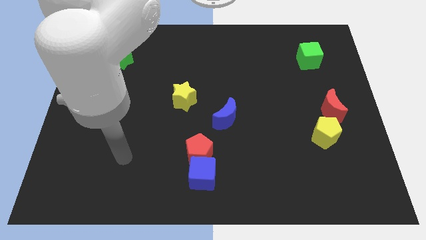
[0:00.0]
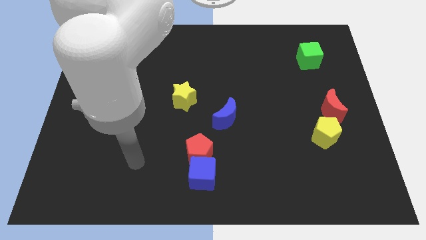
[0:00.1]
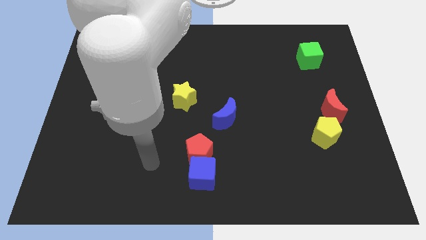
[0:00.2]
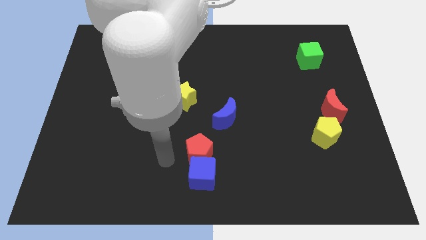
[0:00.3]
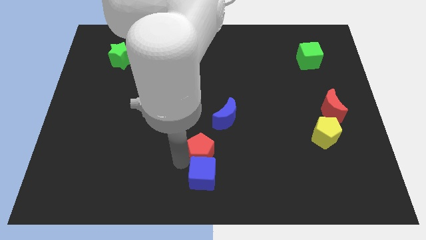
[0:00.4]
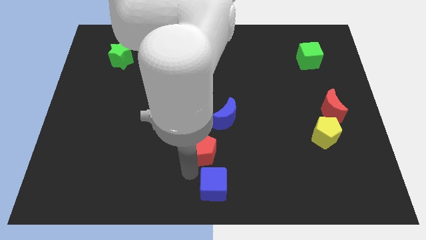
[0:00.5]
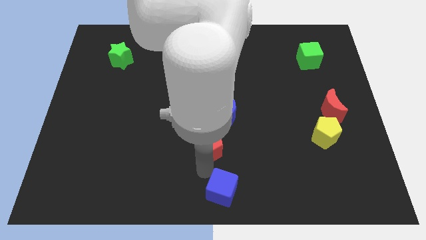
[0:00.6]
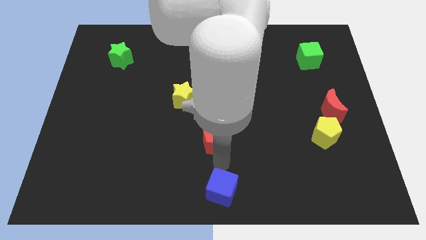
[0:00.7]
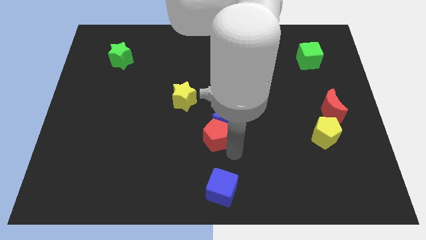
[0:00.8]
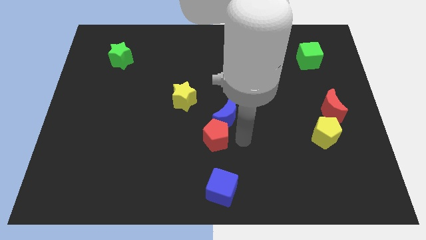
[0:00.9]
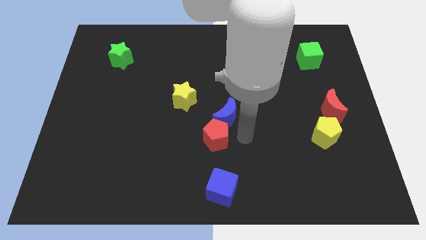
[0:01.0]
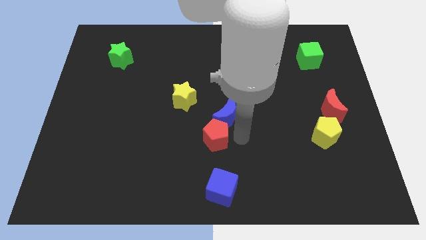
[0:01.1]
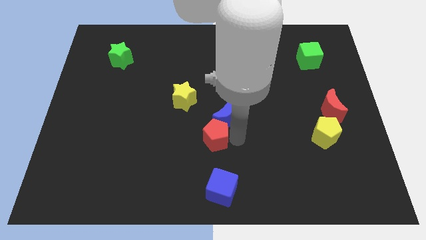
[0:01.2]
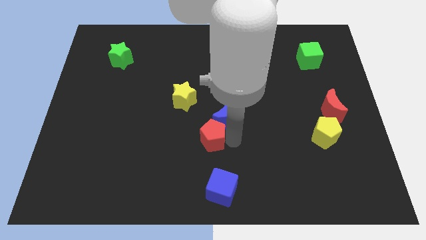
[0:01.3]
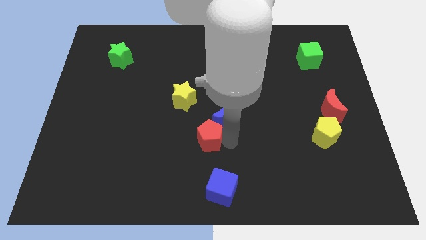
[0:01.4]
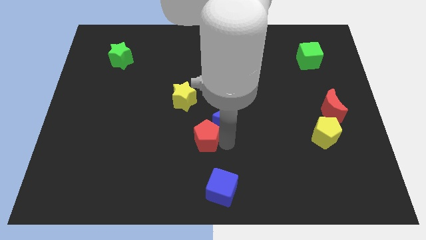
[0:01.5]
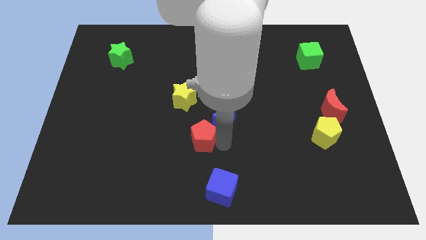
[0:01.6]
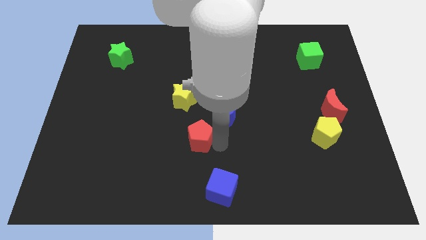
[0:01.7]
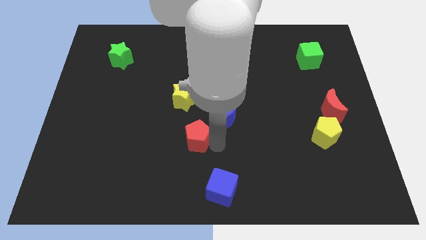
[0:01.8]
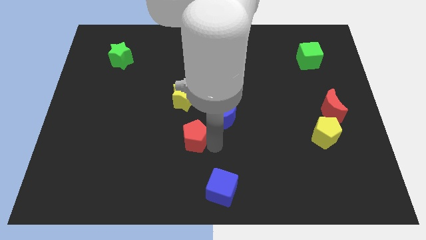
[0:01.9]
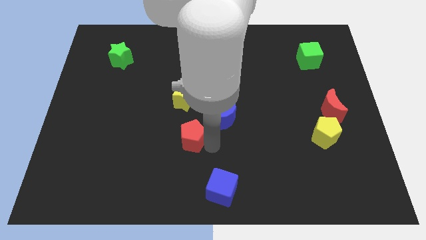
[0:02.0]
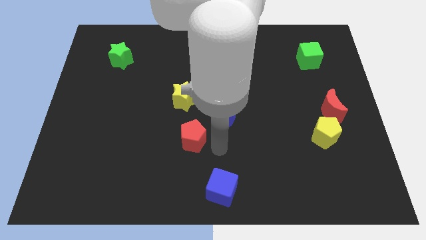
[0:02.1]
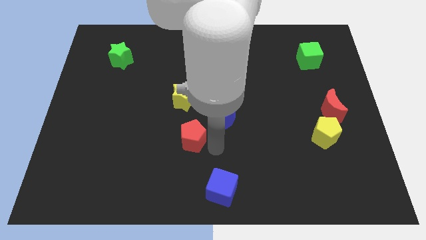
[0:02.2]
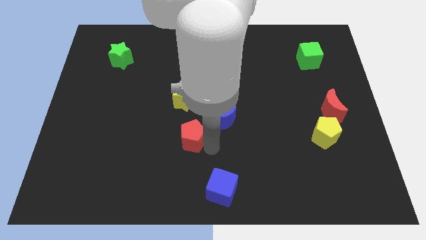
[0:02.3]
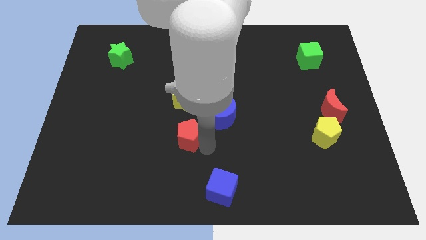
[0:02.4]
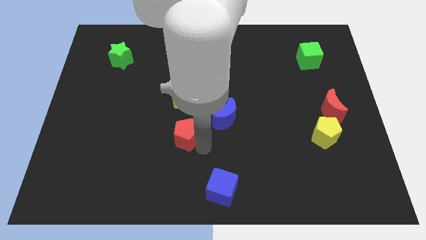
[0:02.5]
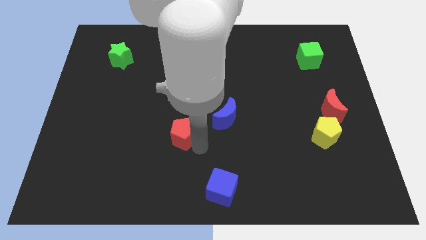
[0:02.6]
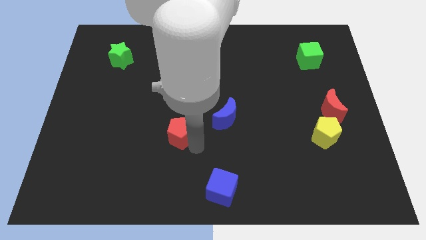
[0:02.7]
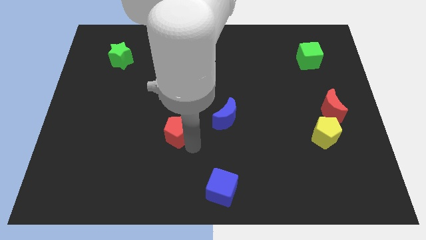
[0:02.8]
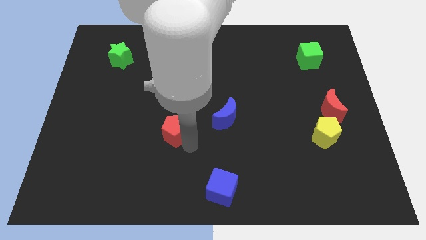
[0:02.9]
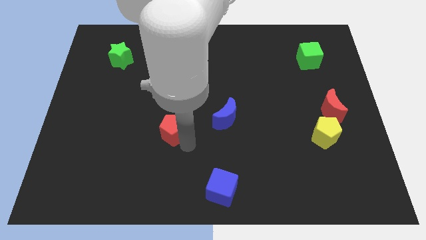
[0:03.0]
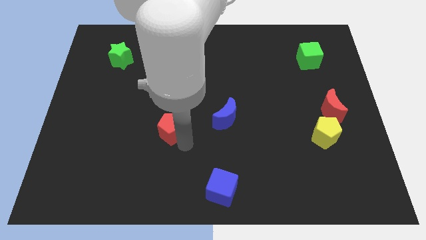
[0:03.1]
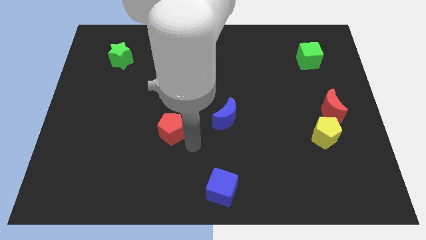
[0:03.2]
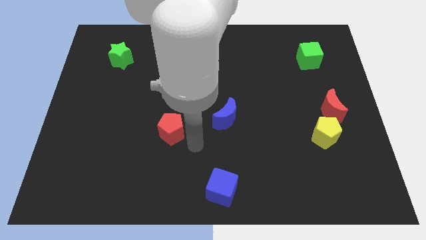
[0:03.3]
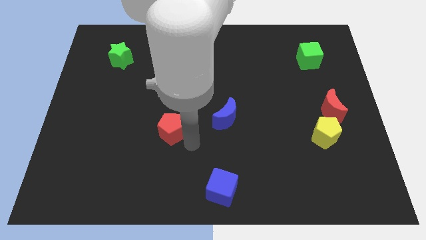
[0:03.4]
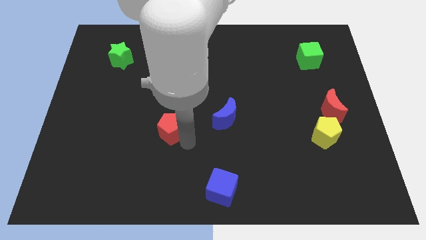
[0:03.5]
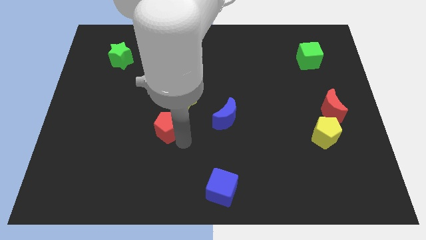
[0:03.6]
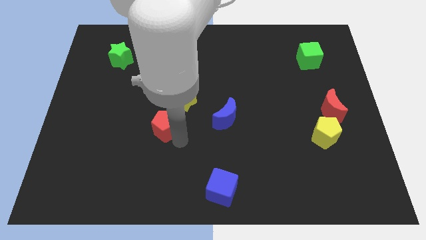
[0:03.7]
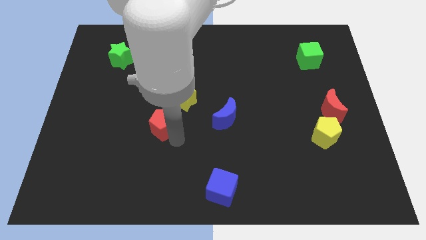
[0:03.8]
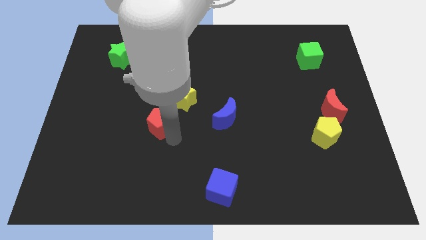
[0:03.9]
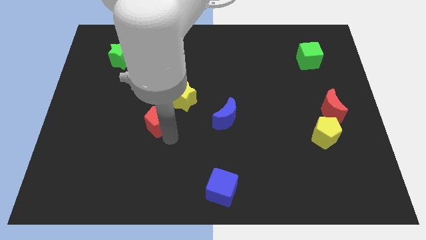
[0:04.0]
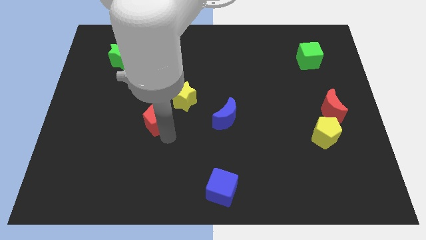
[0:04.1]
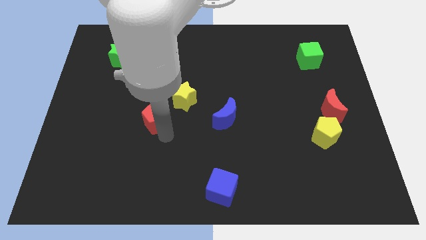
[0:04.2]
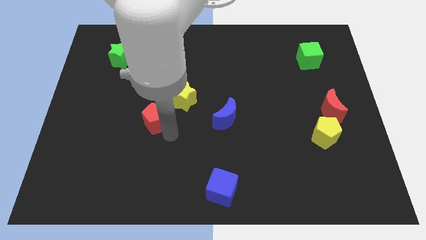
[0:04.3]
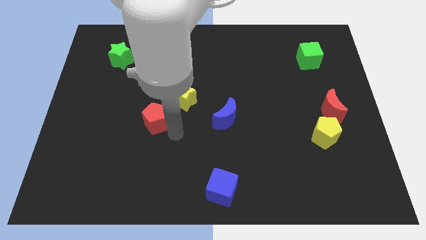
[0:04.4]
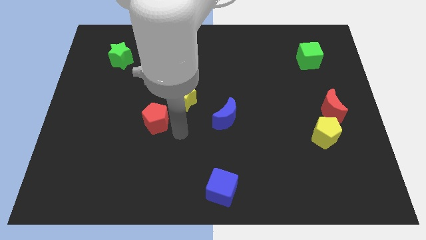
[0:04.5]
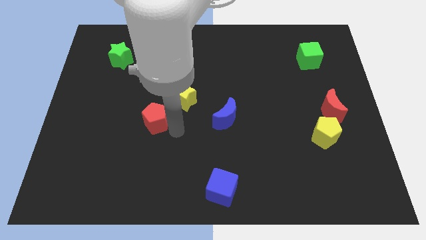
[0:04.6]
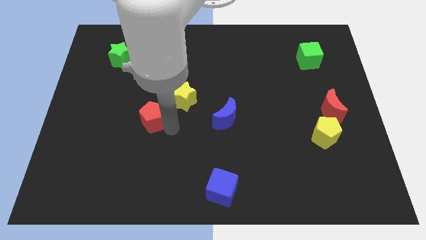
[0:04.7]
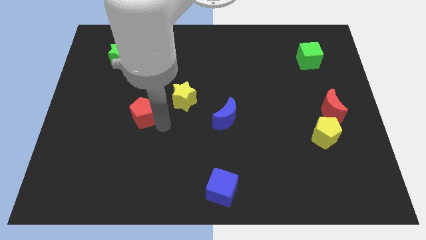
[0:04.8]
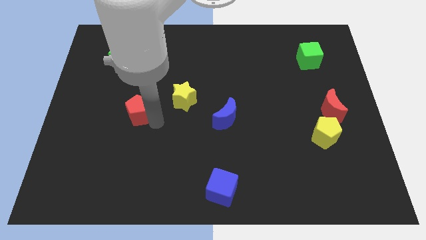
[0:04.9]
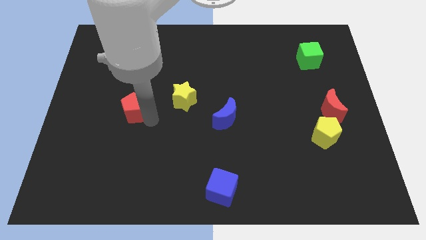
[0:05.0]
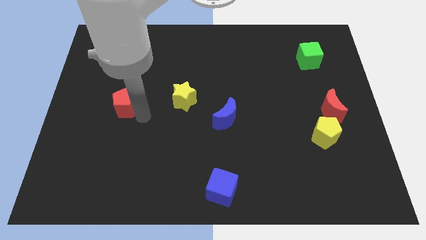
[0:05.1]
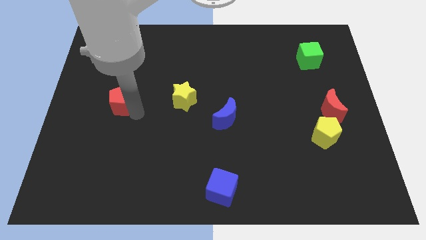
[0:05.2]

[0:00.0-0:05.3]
put the red pentagon to the bottom side of the green star

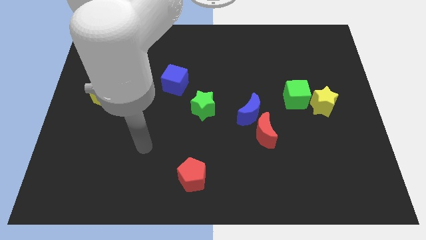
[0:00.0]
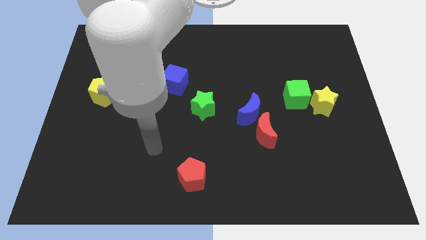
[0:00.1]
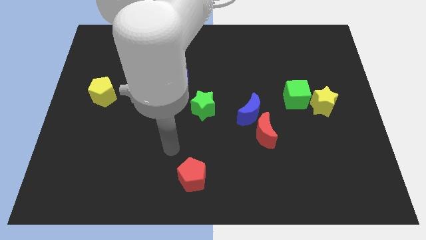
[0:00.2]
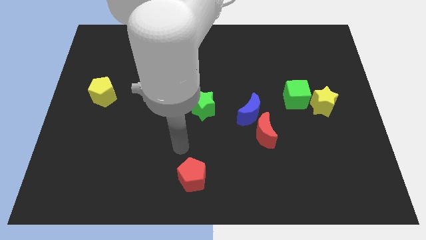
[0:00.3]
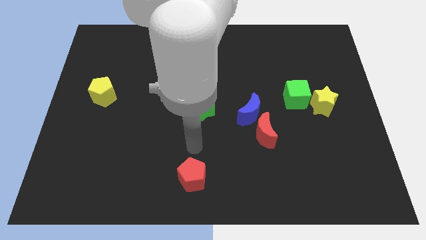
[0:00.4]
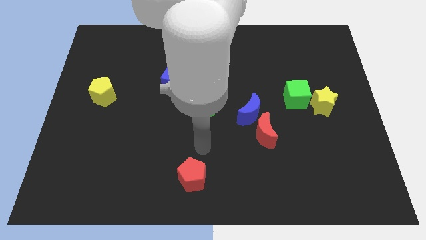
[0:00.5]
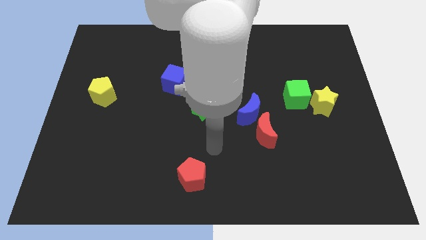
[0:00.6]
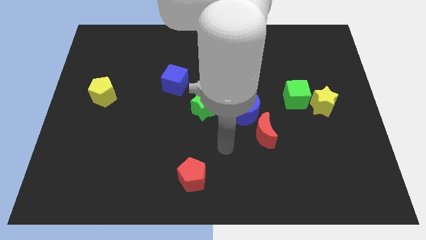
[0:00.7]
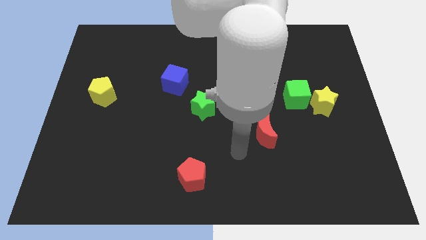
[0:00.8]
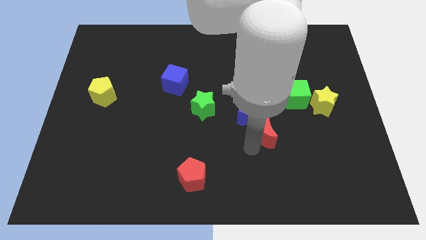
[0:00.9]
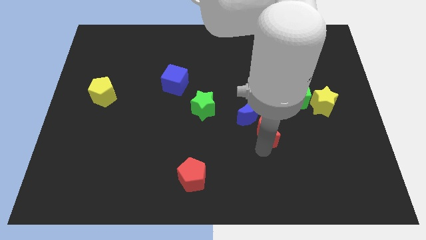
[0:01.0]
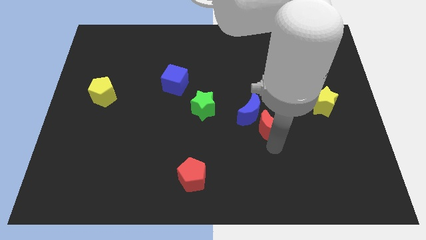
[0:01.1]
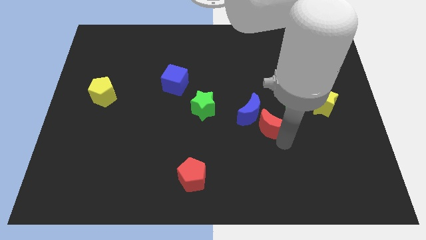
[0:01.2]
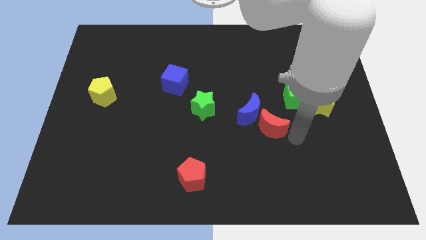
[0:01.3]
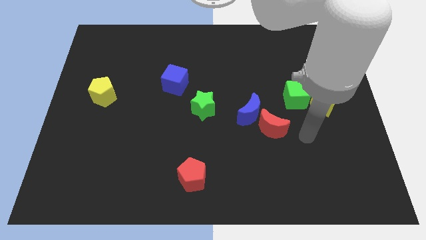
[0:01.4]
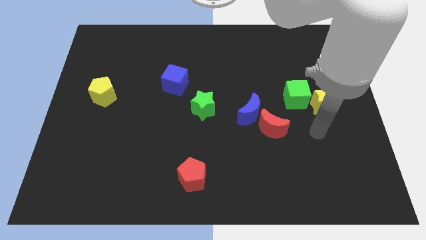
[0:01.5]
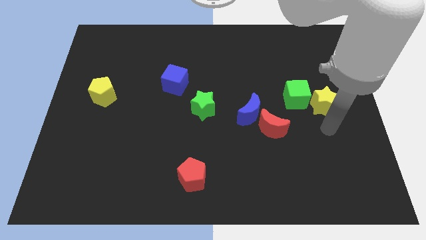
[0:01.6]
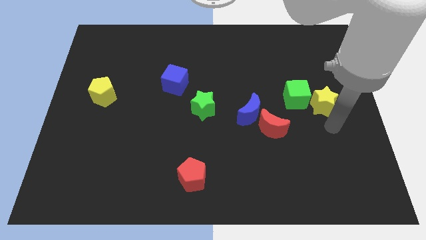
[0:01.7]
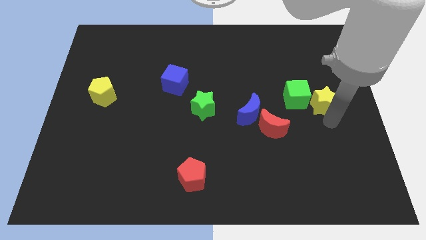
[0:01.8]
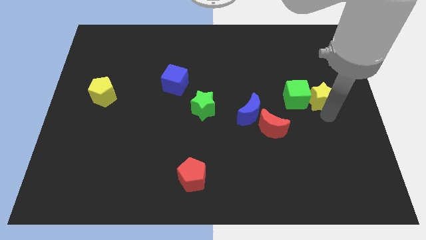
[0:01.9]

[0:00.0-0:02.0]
push the yellow star to the top right side of the green cube
